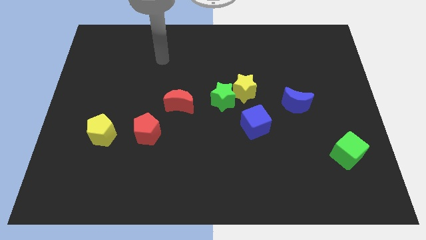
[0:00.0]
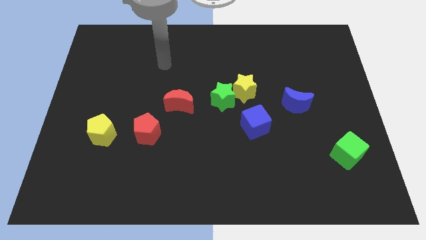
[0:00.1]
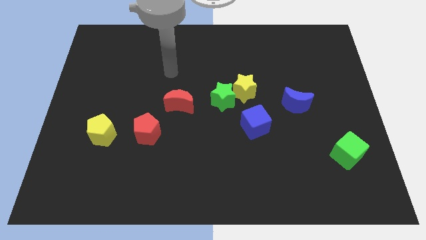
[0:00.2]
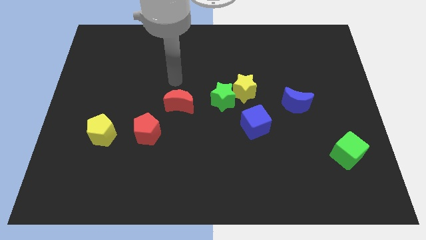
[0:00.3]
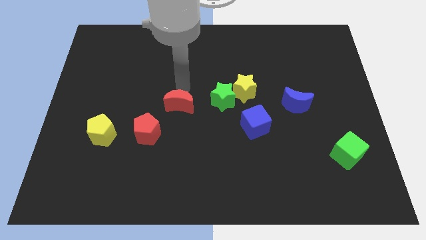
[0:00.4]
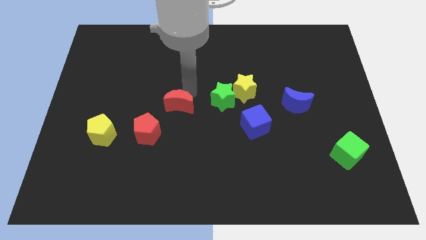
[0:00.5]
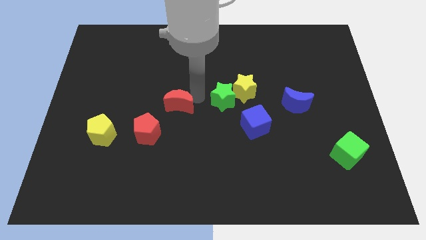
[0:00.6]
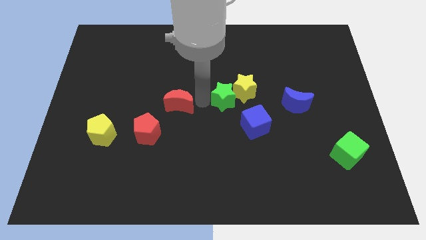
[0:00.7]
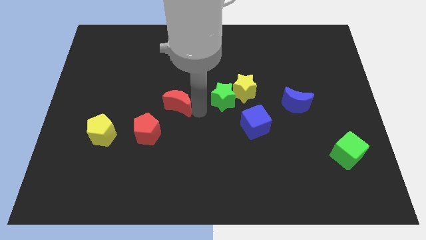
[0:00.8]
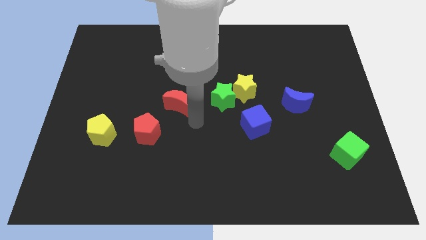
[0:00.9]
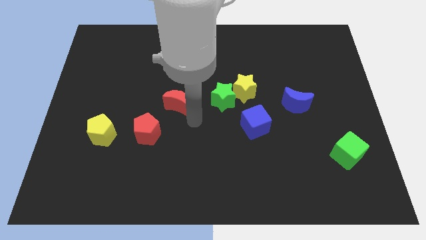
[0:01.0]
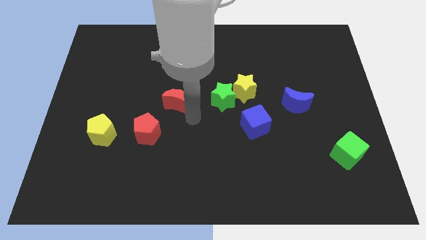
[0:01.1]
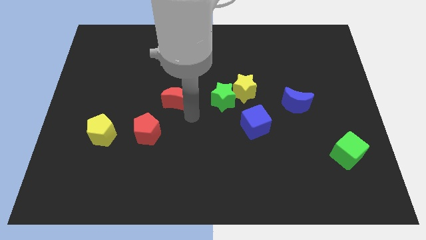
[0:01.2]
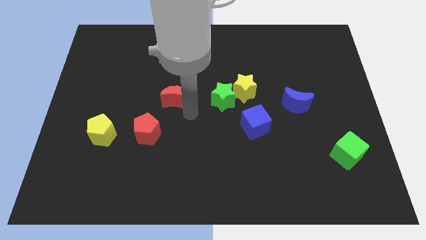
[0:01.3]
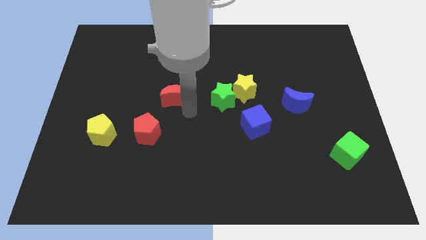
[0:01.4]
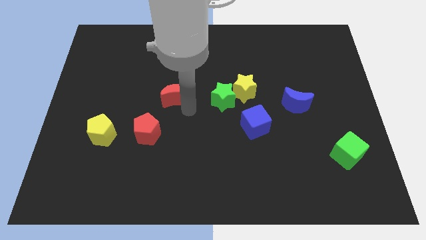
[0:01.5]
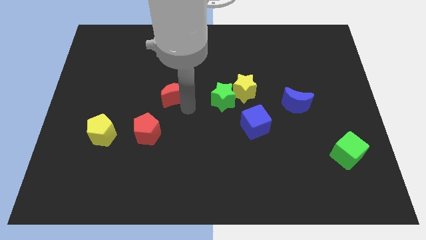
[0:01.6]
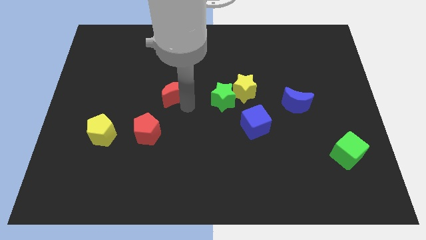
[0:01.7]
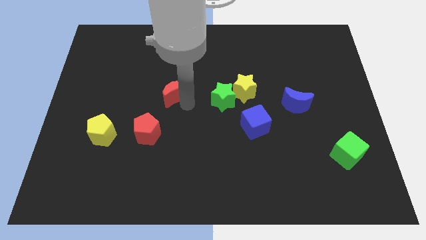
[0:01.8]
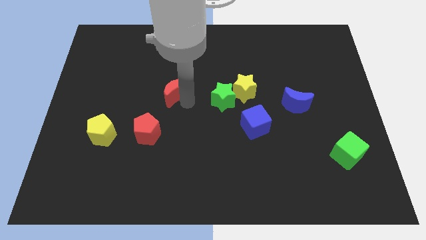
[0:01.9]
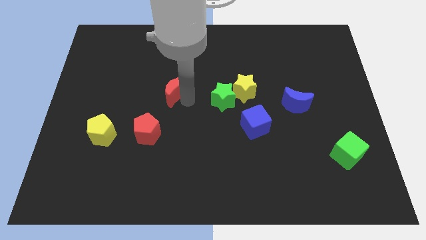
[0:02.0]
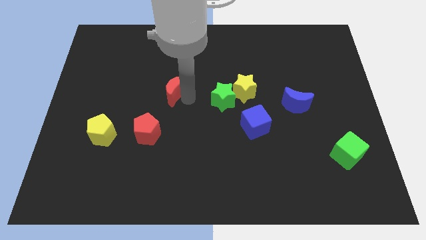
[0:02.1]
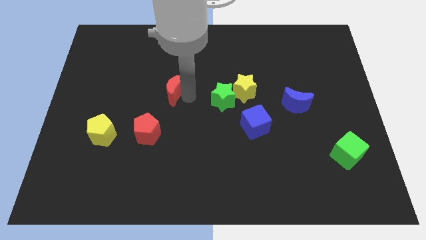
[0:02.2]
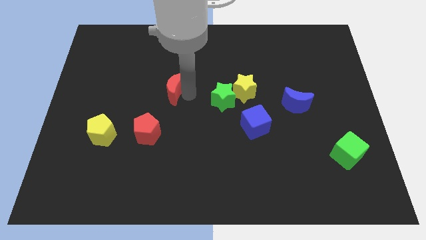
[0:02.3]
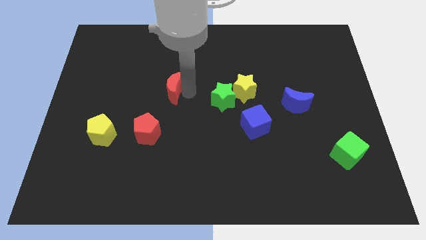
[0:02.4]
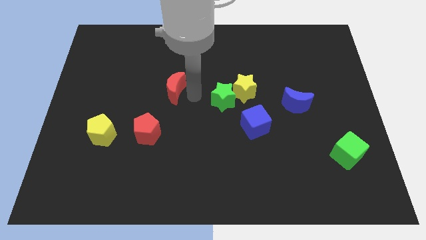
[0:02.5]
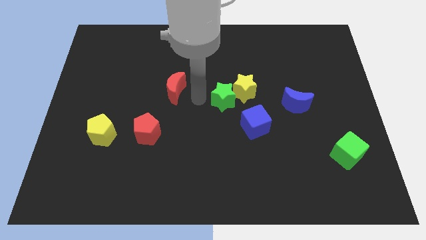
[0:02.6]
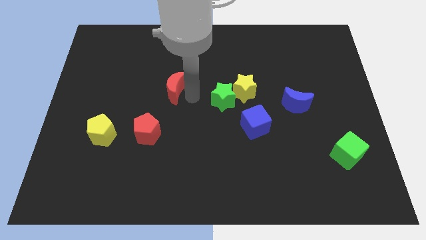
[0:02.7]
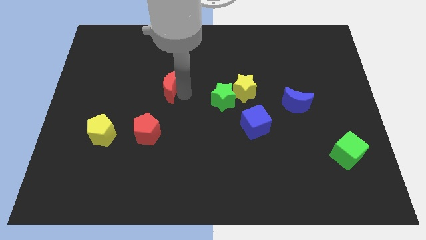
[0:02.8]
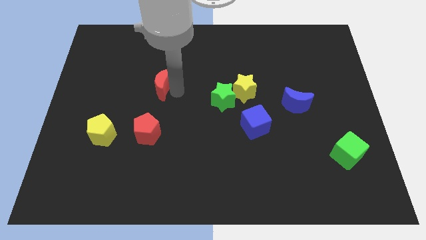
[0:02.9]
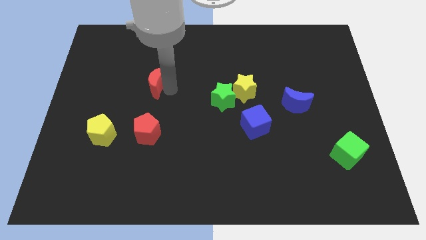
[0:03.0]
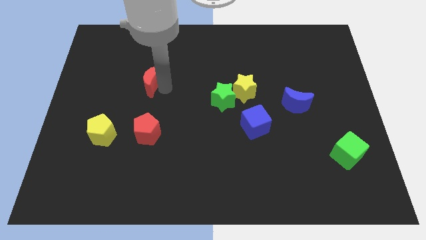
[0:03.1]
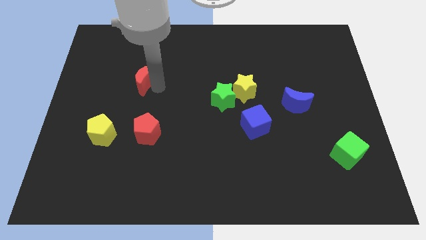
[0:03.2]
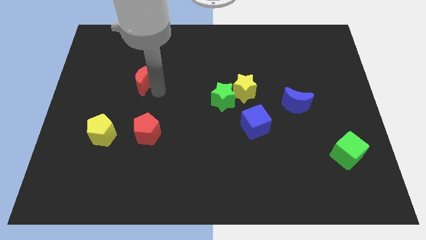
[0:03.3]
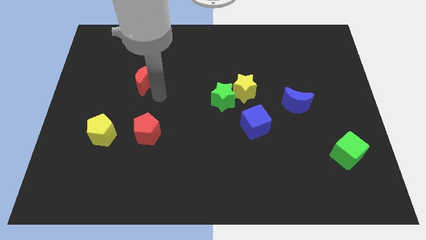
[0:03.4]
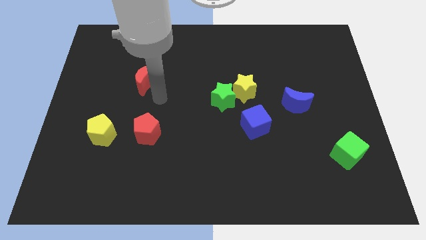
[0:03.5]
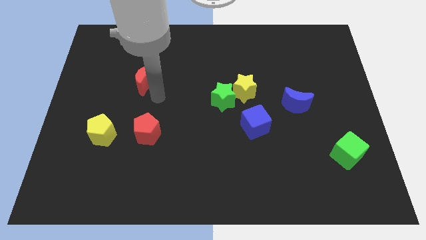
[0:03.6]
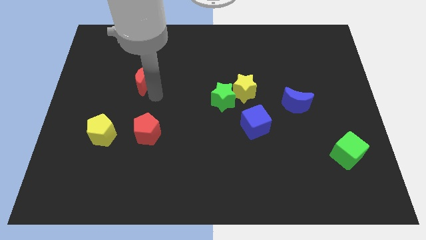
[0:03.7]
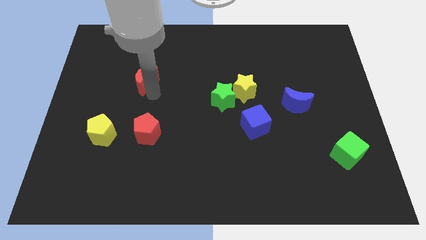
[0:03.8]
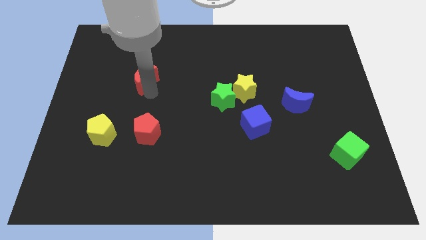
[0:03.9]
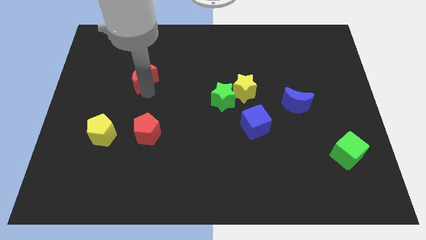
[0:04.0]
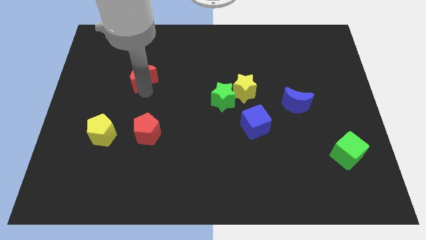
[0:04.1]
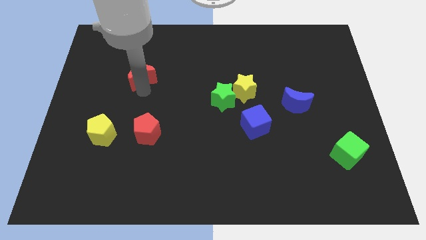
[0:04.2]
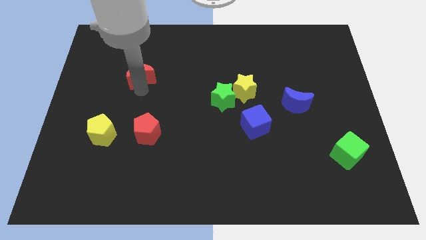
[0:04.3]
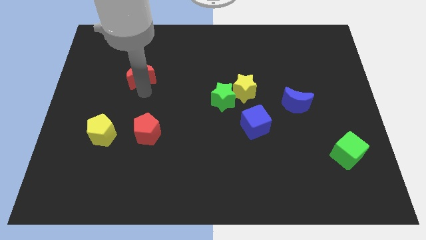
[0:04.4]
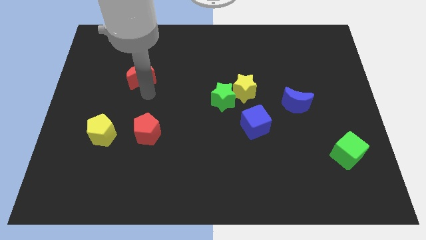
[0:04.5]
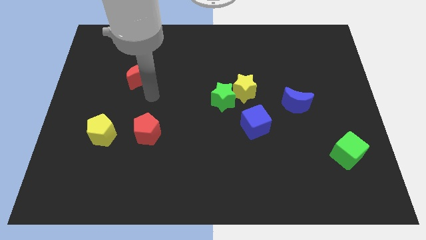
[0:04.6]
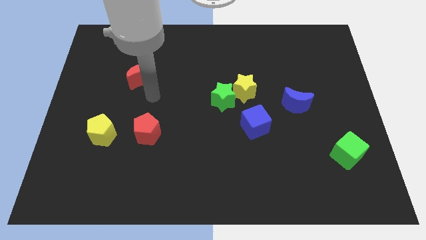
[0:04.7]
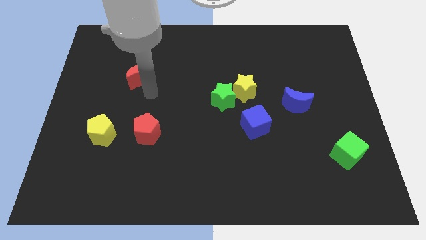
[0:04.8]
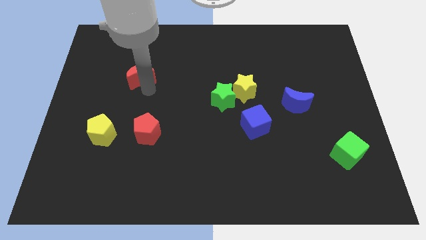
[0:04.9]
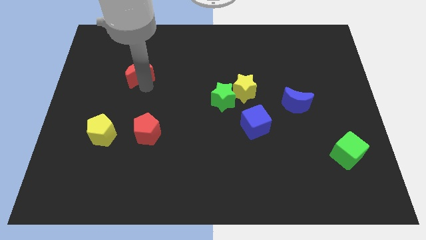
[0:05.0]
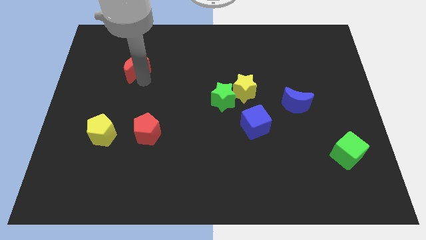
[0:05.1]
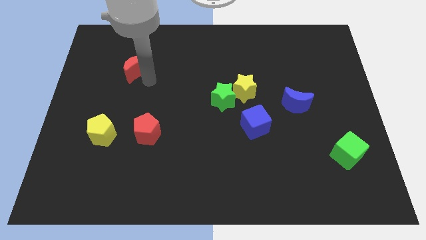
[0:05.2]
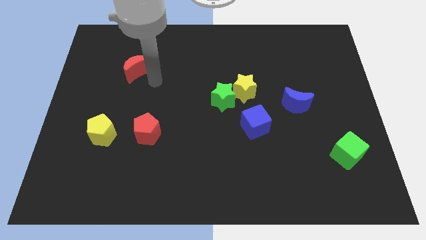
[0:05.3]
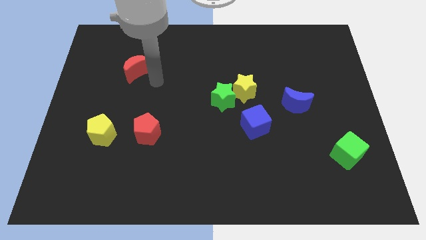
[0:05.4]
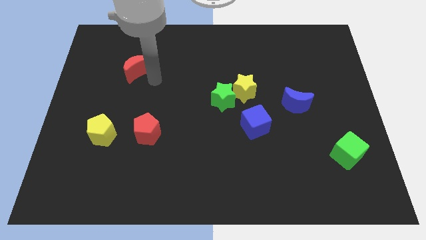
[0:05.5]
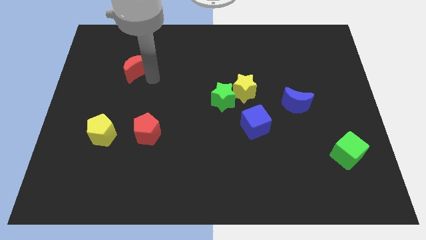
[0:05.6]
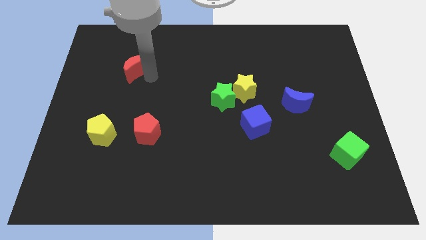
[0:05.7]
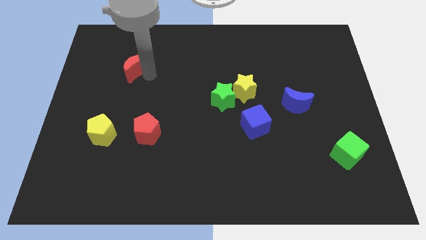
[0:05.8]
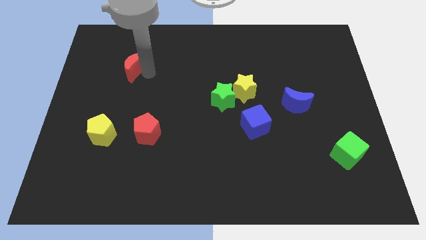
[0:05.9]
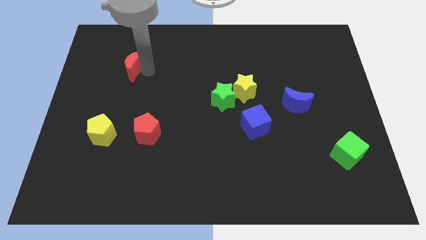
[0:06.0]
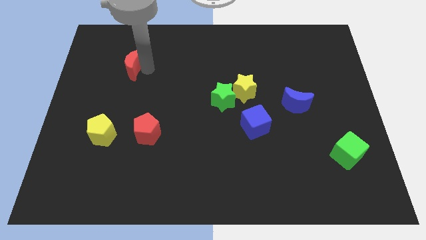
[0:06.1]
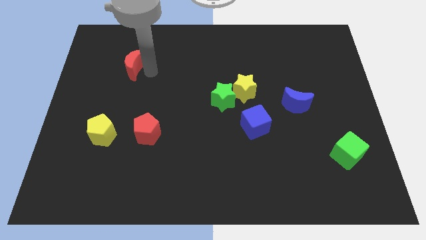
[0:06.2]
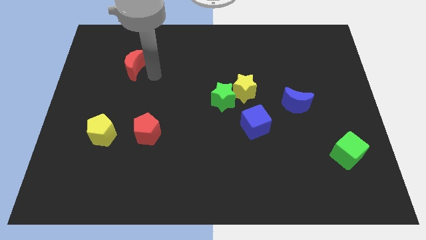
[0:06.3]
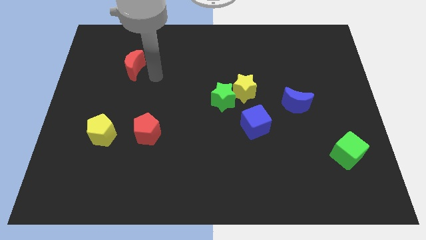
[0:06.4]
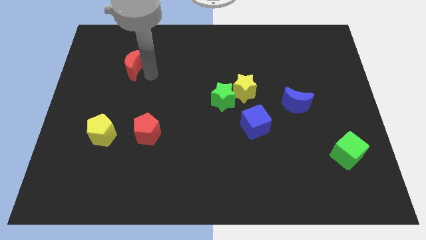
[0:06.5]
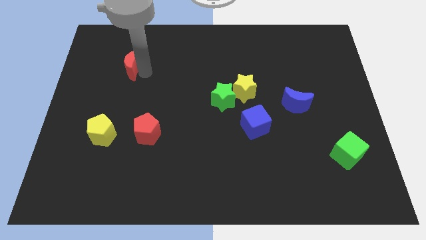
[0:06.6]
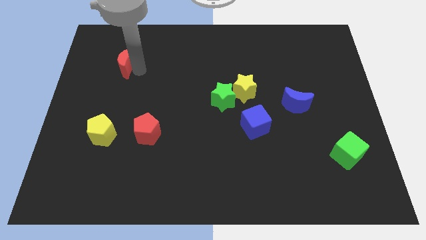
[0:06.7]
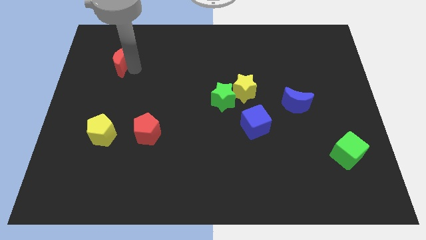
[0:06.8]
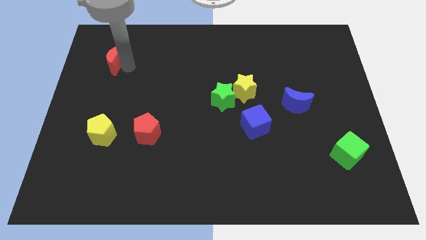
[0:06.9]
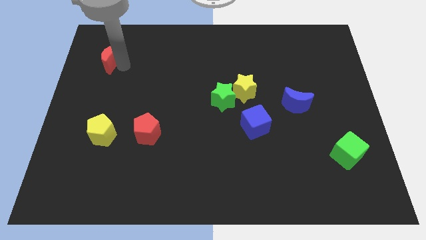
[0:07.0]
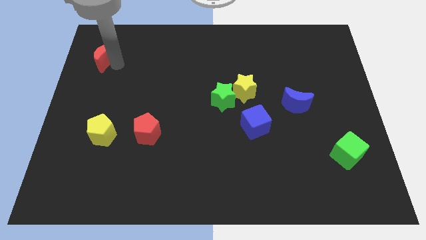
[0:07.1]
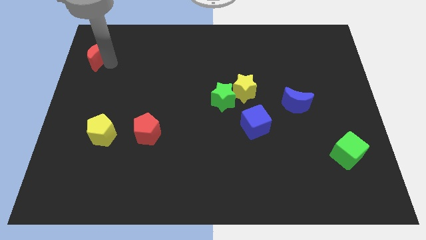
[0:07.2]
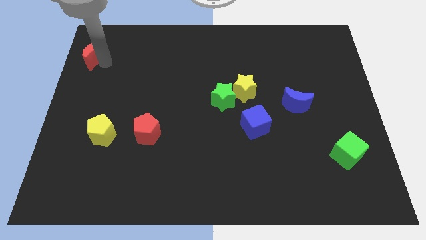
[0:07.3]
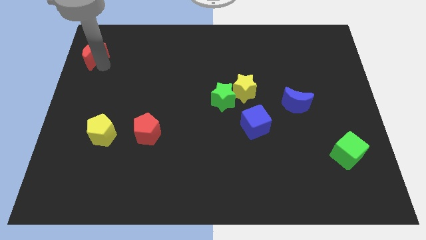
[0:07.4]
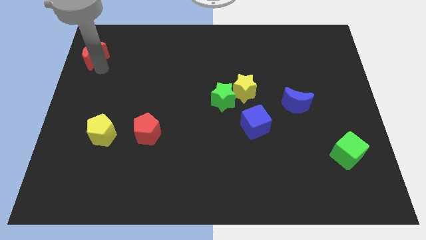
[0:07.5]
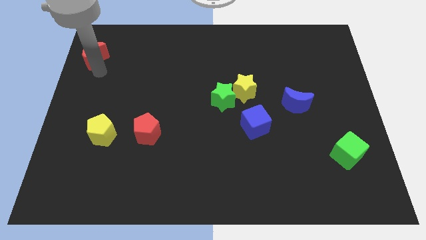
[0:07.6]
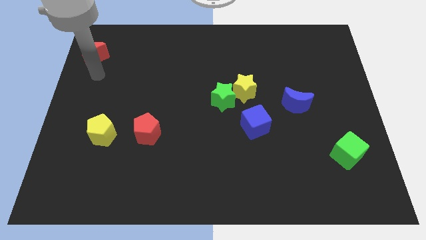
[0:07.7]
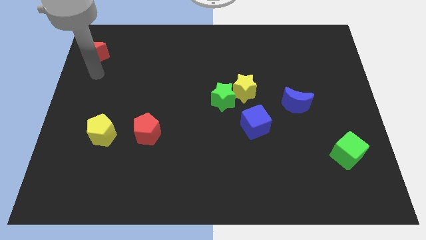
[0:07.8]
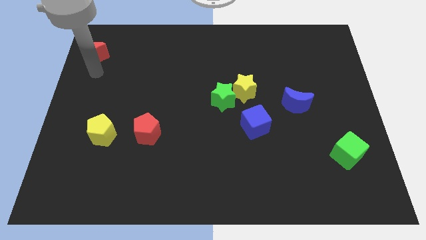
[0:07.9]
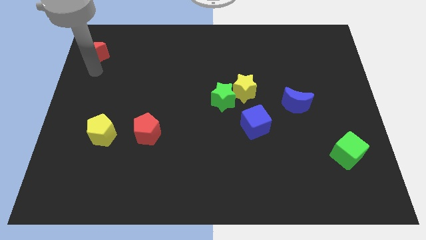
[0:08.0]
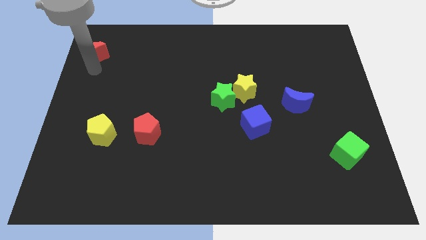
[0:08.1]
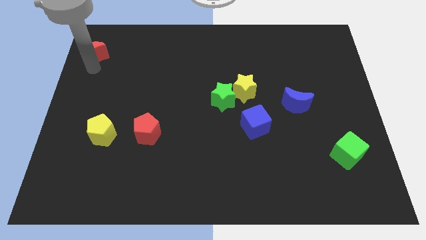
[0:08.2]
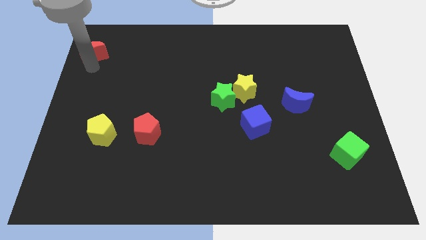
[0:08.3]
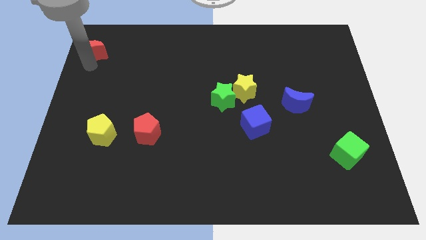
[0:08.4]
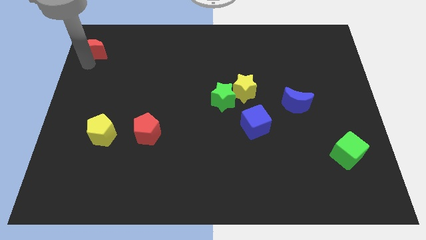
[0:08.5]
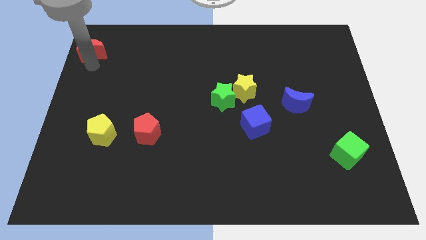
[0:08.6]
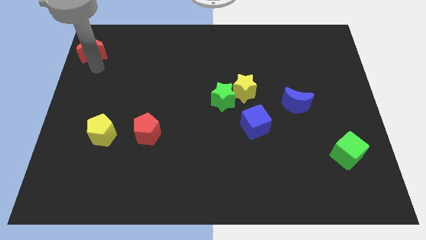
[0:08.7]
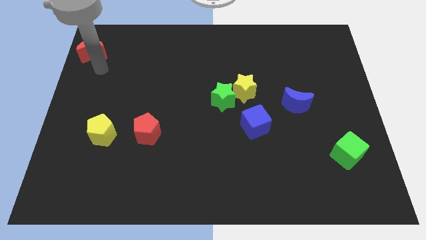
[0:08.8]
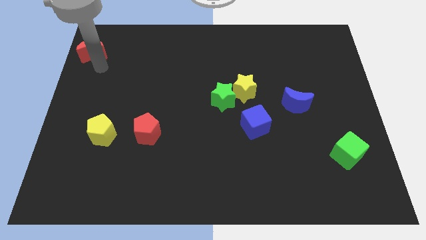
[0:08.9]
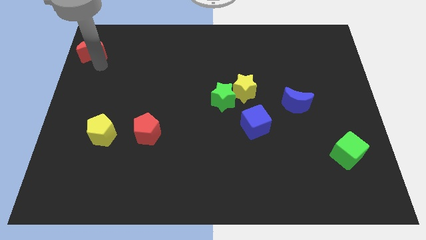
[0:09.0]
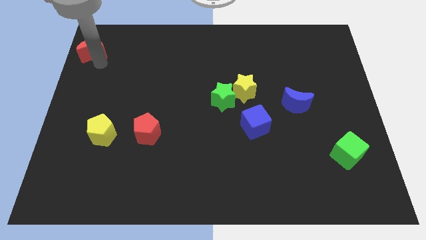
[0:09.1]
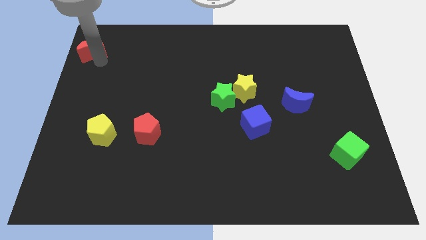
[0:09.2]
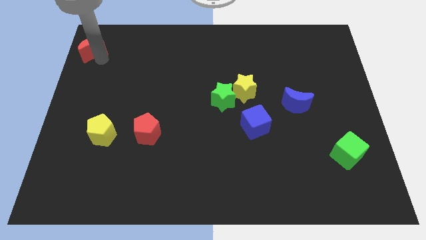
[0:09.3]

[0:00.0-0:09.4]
push the red moon to the top left
